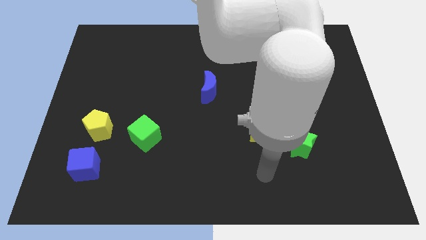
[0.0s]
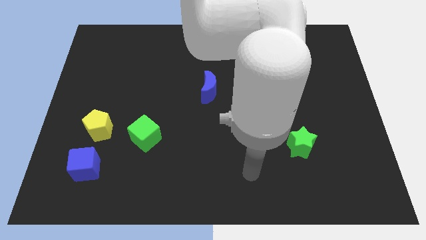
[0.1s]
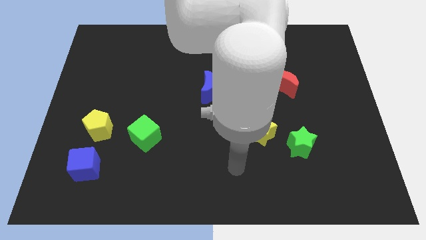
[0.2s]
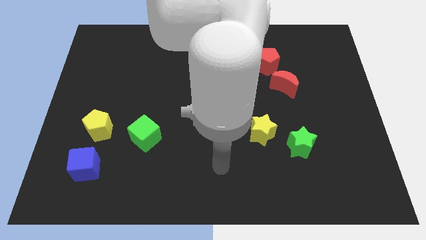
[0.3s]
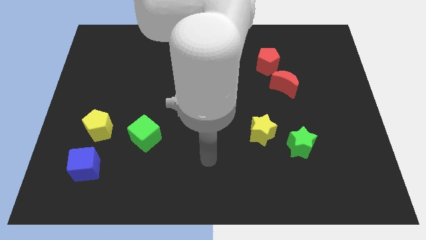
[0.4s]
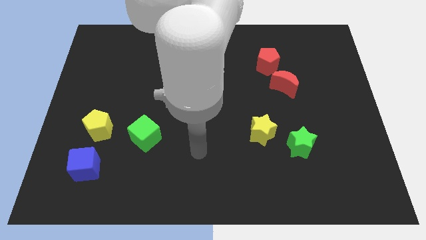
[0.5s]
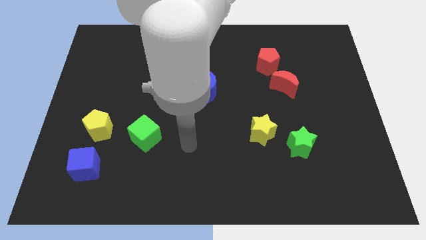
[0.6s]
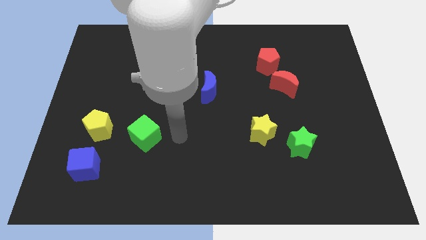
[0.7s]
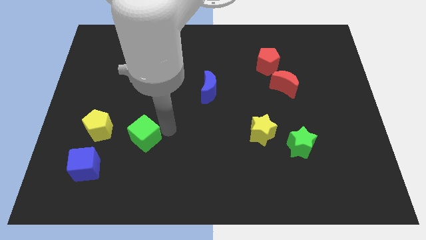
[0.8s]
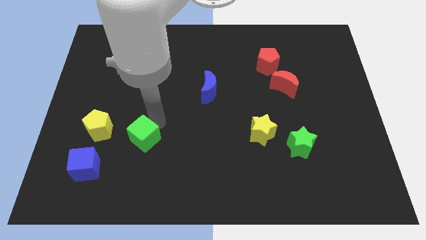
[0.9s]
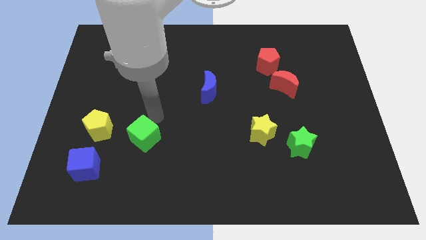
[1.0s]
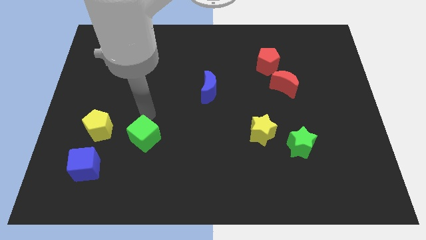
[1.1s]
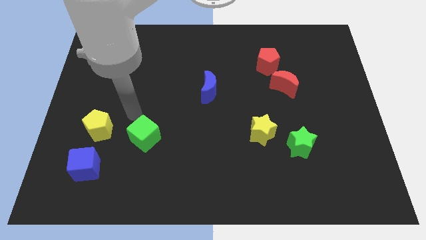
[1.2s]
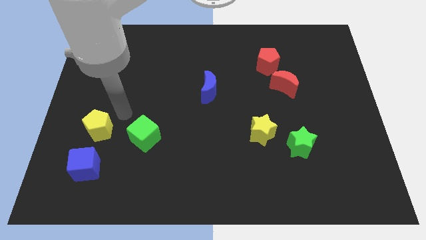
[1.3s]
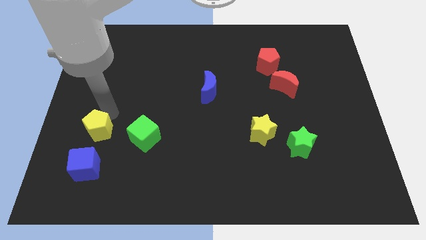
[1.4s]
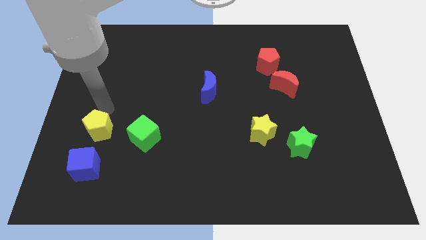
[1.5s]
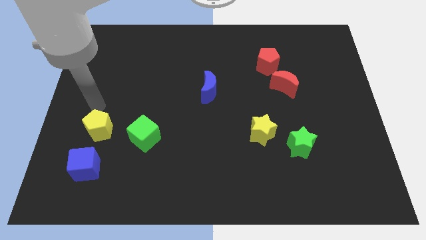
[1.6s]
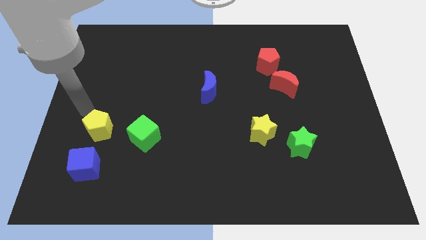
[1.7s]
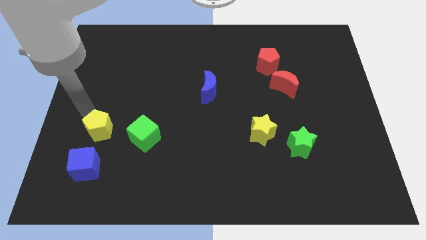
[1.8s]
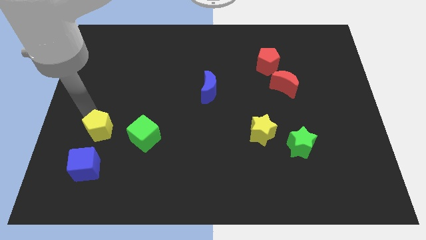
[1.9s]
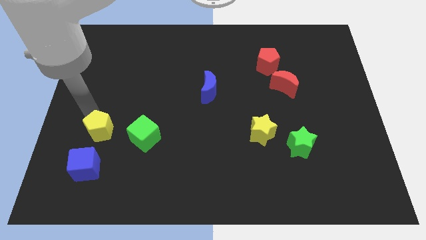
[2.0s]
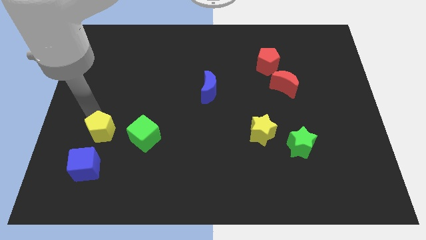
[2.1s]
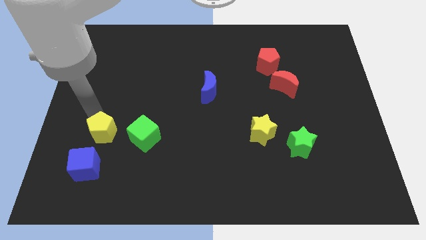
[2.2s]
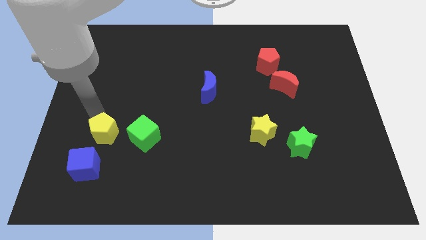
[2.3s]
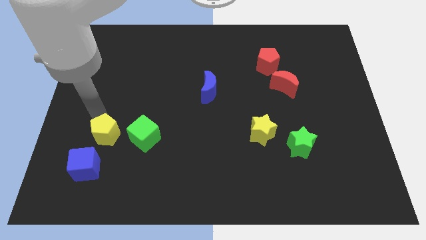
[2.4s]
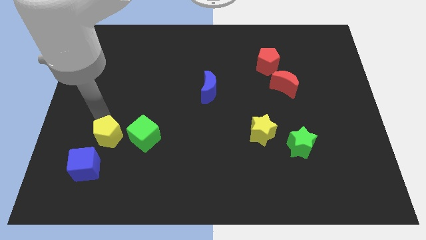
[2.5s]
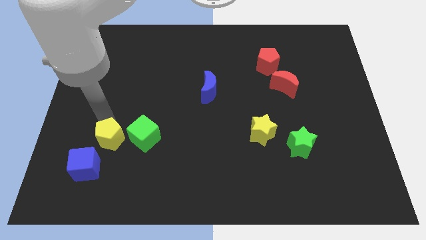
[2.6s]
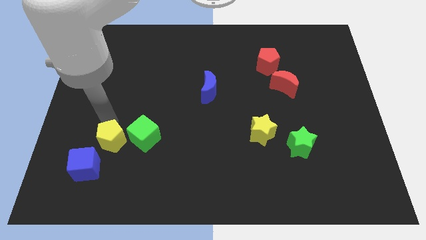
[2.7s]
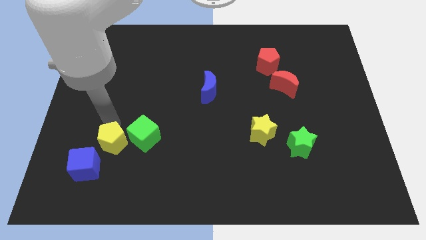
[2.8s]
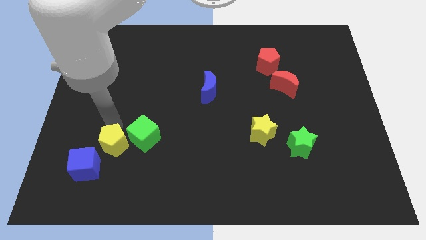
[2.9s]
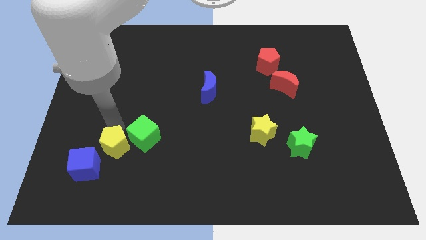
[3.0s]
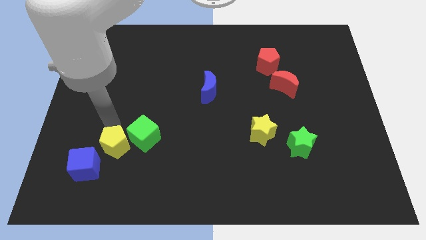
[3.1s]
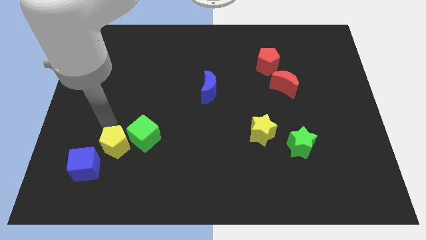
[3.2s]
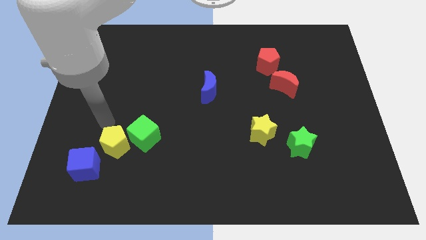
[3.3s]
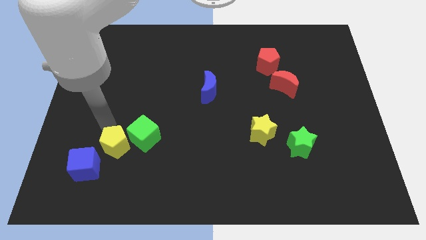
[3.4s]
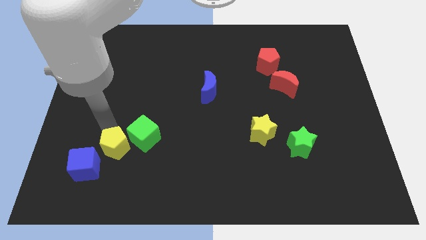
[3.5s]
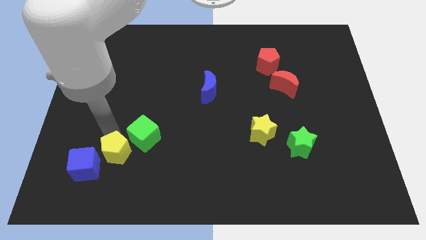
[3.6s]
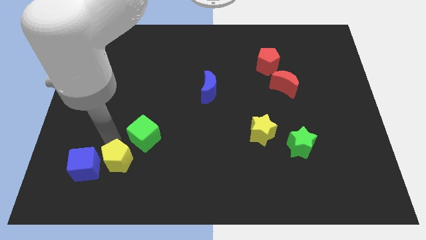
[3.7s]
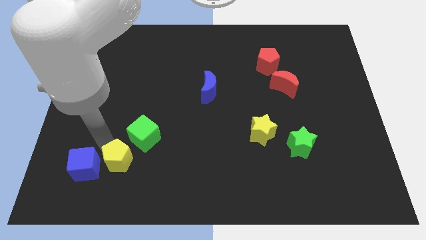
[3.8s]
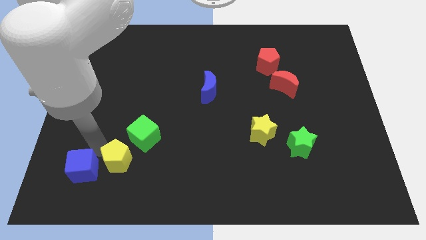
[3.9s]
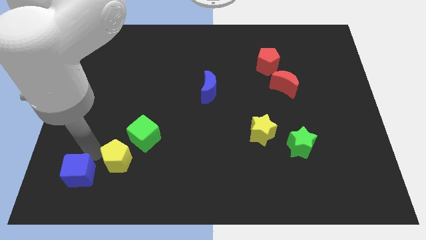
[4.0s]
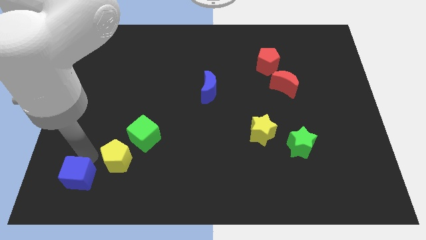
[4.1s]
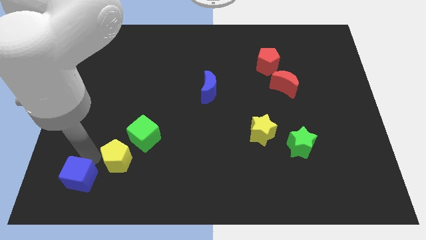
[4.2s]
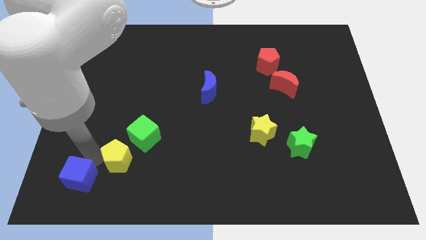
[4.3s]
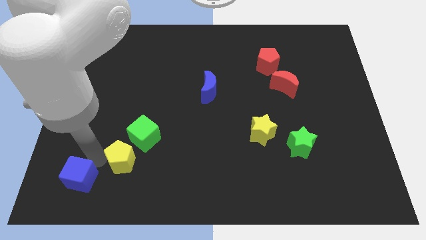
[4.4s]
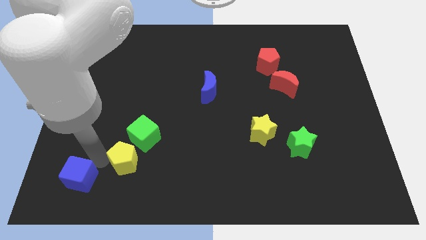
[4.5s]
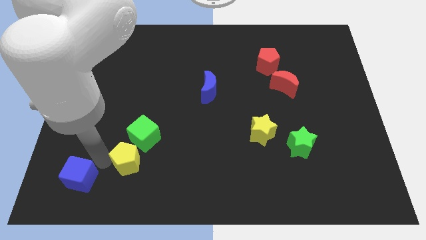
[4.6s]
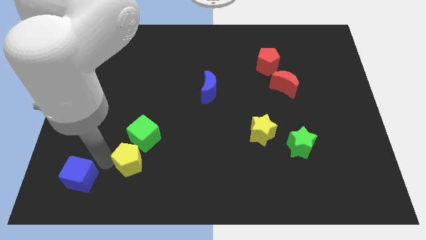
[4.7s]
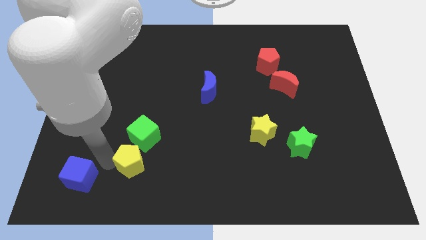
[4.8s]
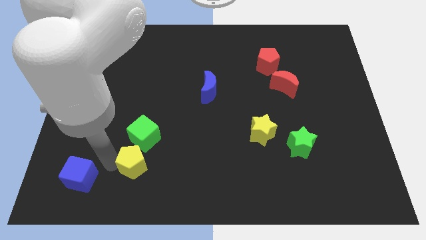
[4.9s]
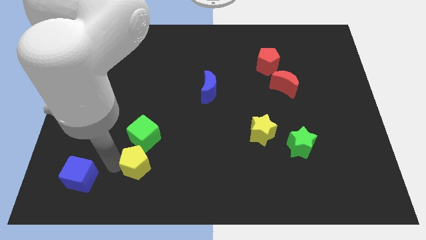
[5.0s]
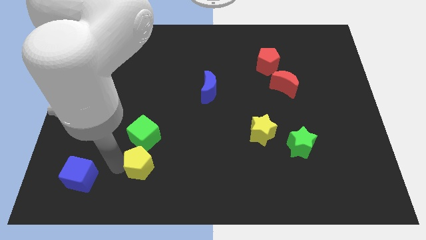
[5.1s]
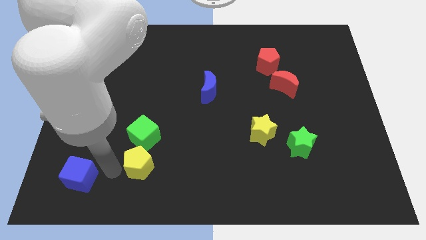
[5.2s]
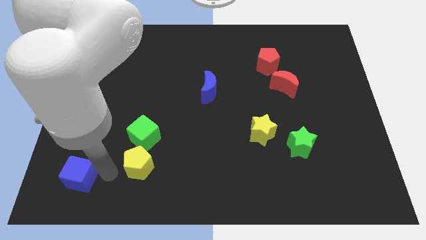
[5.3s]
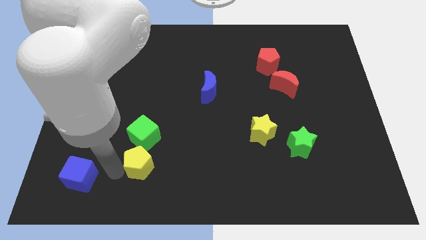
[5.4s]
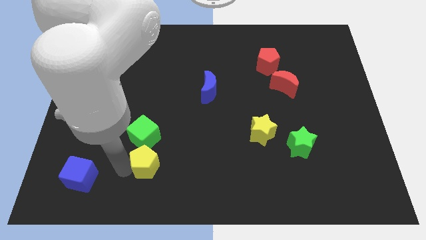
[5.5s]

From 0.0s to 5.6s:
put the yellow pentagon to the bottom right side of the green cube

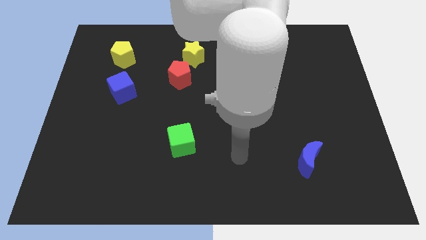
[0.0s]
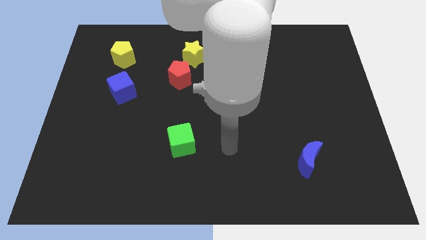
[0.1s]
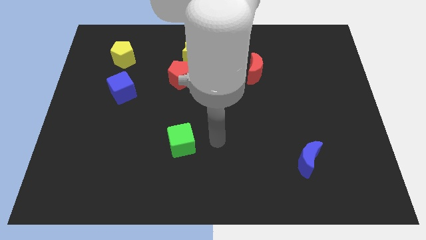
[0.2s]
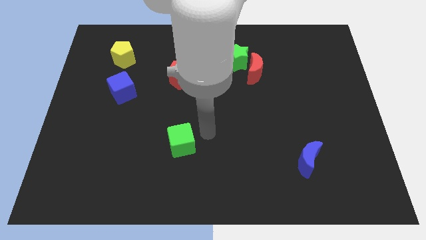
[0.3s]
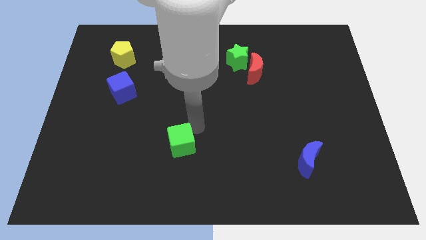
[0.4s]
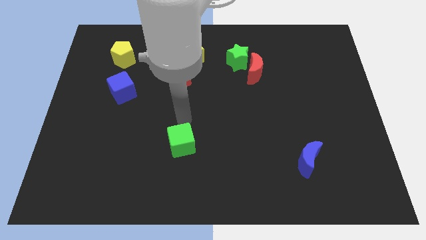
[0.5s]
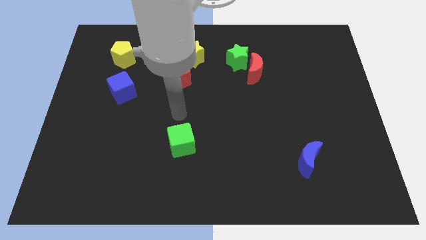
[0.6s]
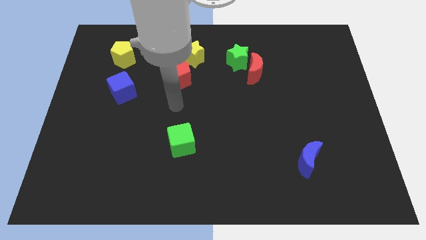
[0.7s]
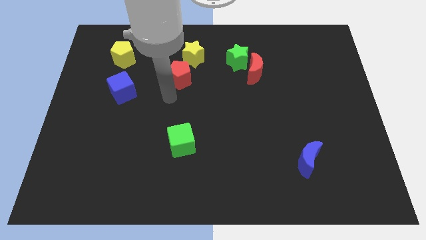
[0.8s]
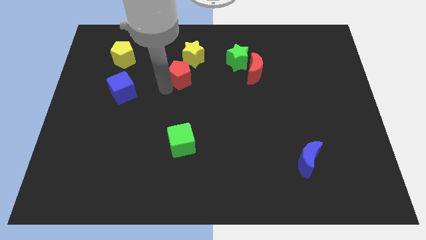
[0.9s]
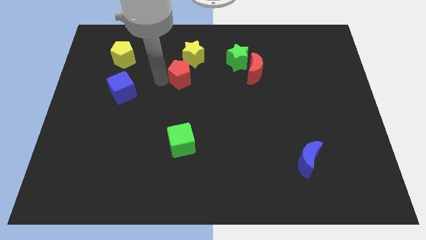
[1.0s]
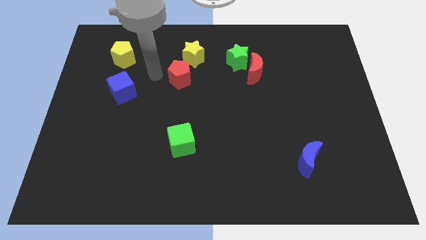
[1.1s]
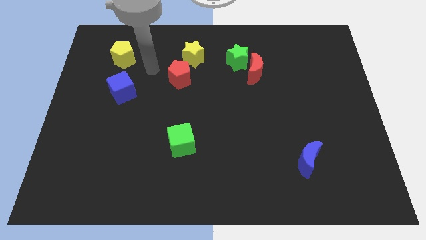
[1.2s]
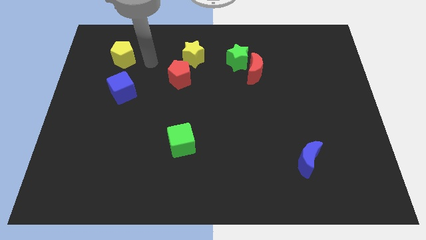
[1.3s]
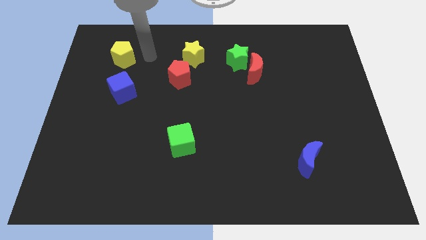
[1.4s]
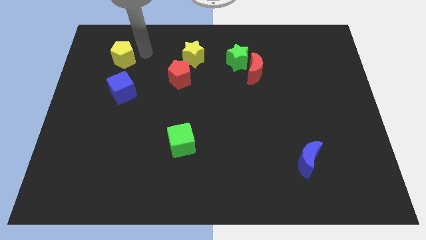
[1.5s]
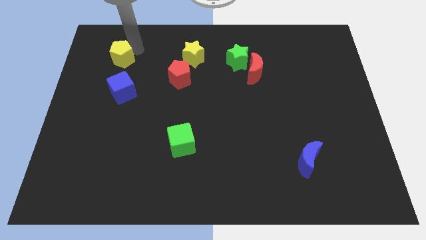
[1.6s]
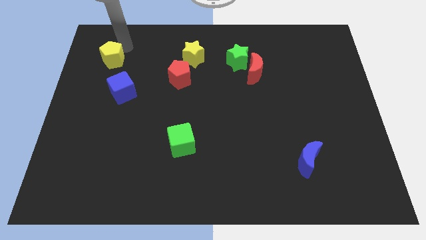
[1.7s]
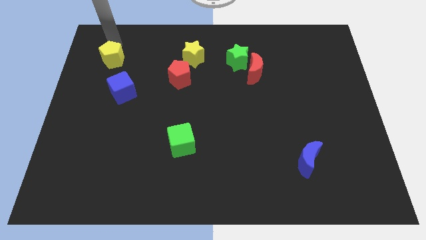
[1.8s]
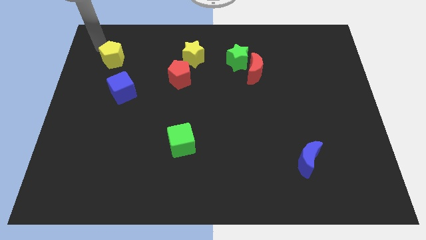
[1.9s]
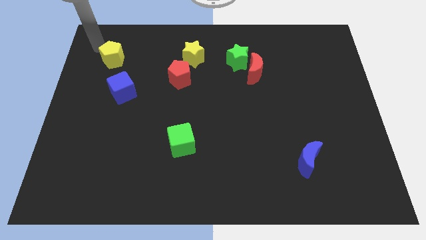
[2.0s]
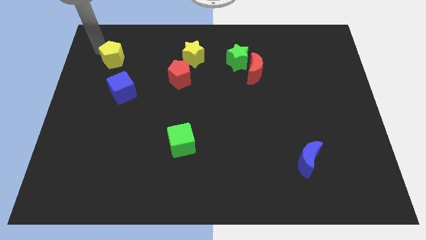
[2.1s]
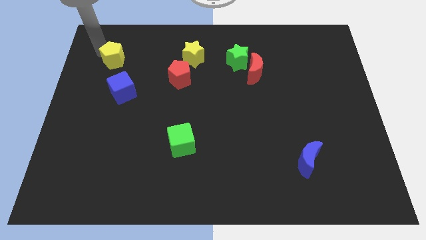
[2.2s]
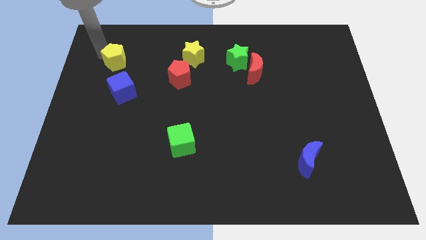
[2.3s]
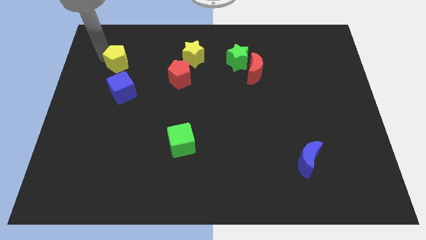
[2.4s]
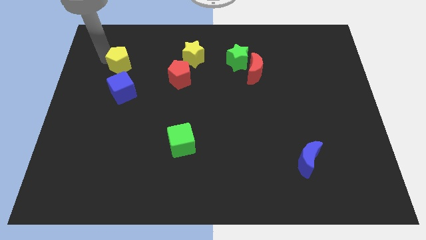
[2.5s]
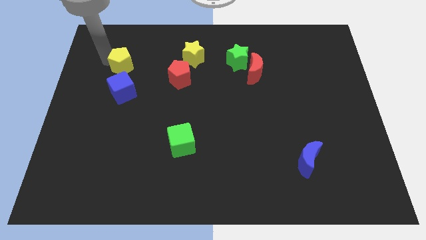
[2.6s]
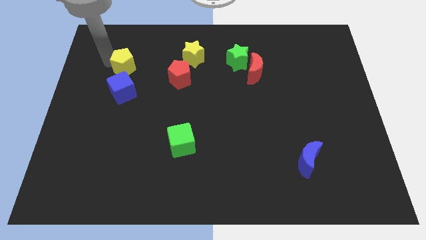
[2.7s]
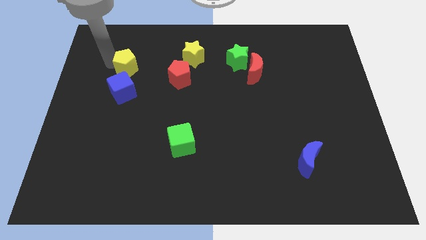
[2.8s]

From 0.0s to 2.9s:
move the yellow pentagon to the left side of the red pentagon
